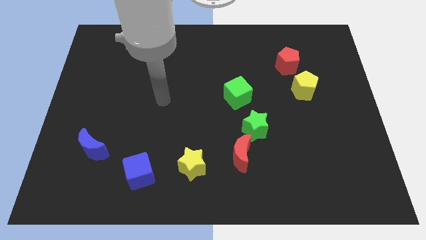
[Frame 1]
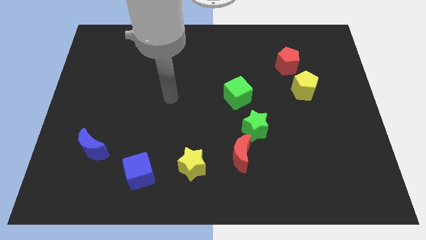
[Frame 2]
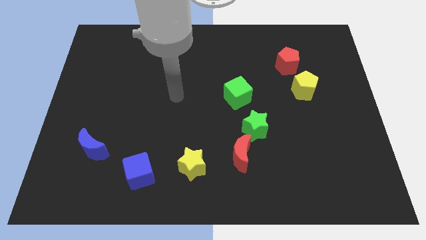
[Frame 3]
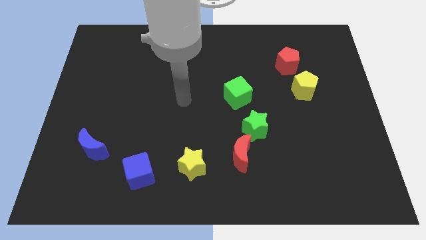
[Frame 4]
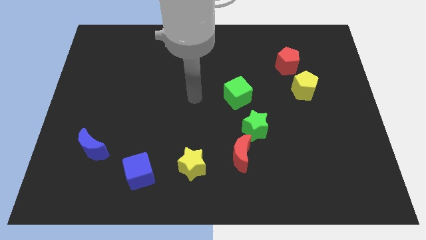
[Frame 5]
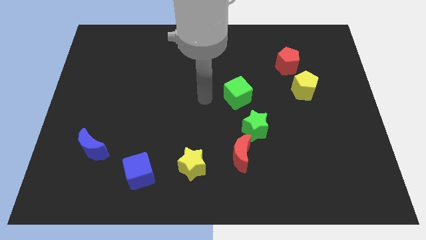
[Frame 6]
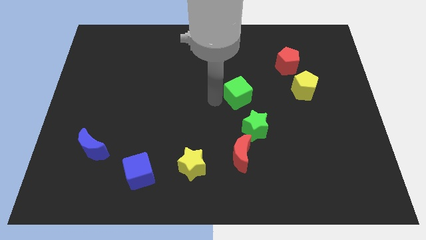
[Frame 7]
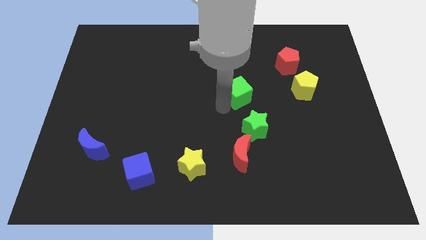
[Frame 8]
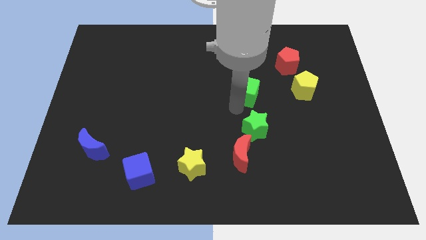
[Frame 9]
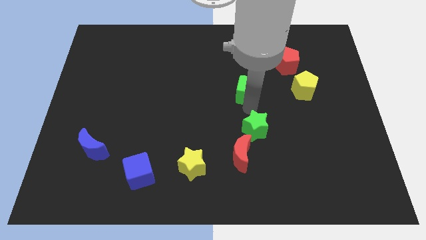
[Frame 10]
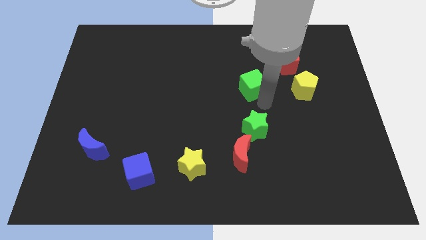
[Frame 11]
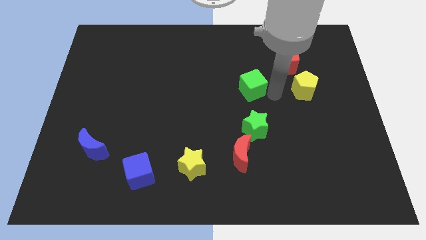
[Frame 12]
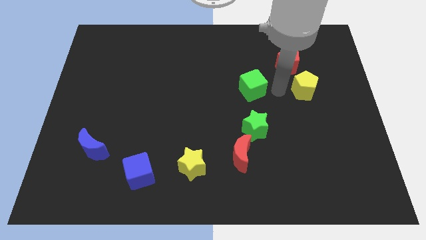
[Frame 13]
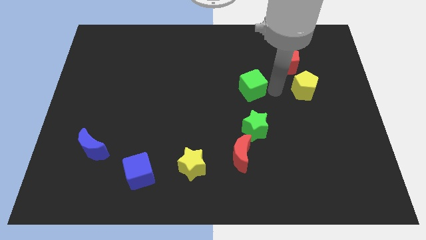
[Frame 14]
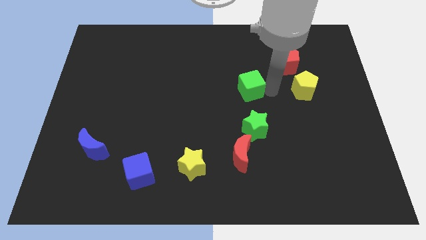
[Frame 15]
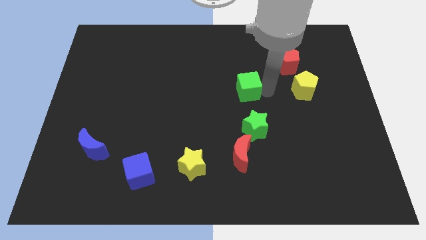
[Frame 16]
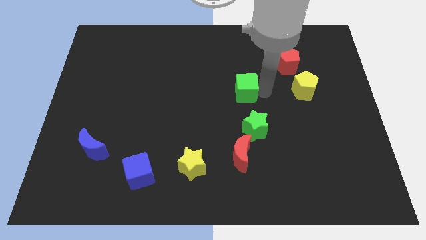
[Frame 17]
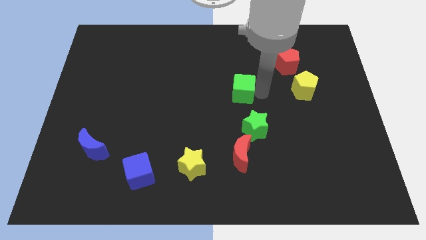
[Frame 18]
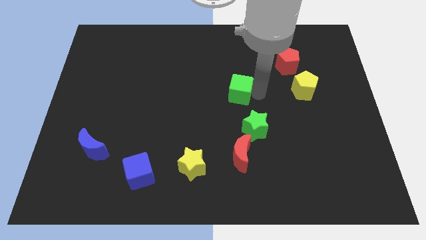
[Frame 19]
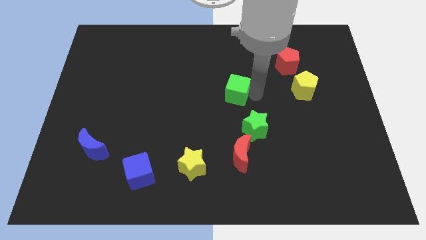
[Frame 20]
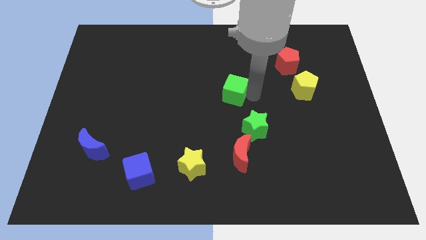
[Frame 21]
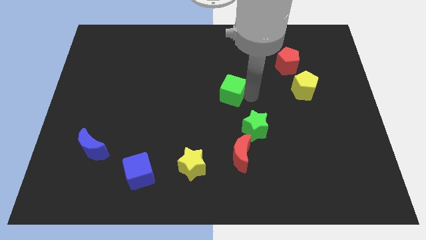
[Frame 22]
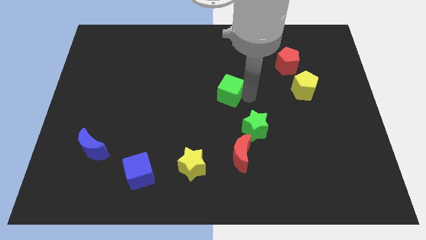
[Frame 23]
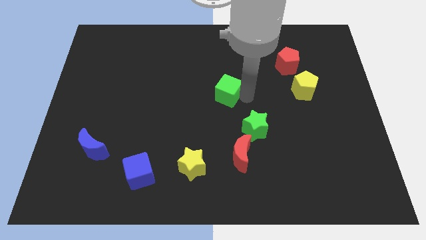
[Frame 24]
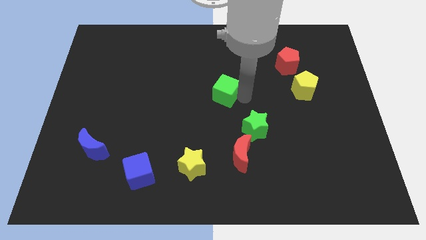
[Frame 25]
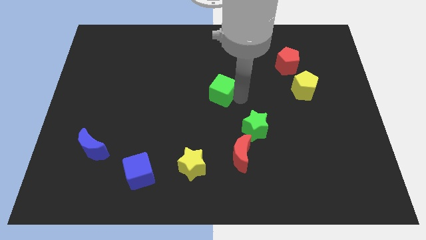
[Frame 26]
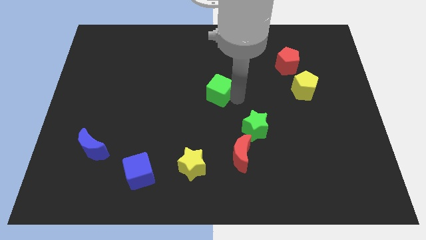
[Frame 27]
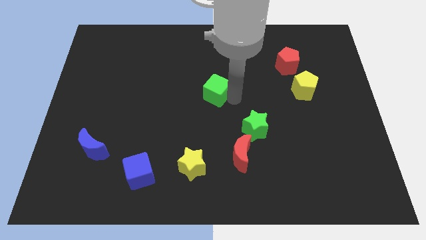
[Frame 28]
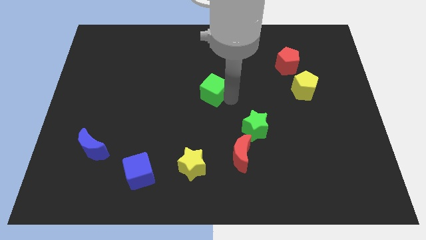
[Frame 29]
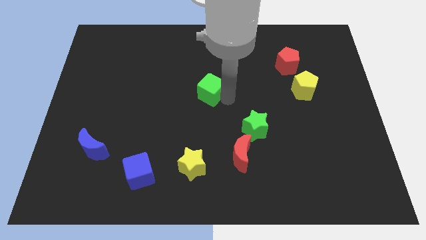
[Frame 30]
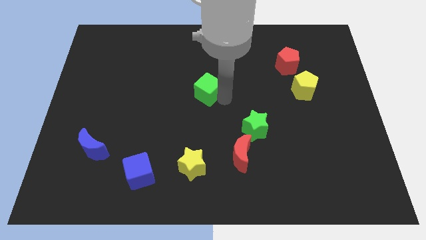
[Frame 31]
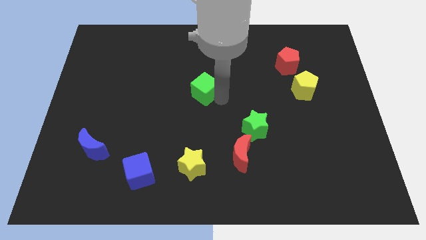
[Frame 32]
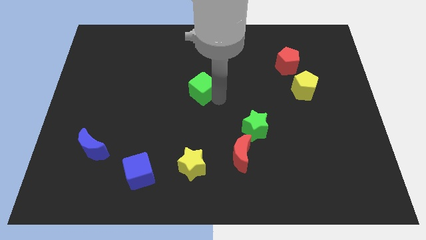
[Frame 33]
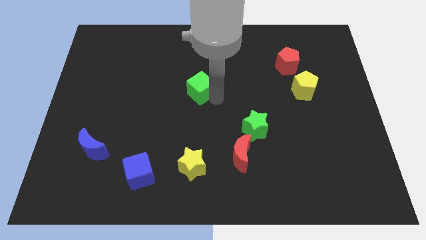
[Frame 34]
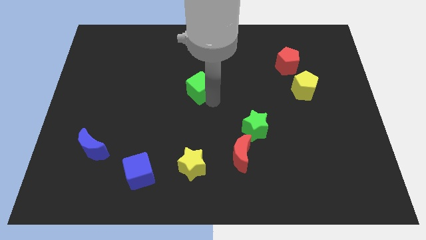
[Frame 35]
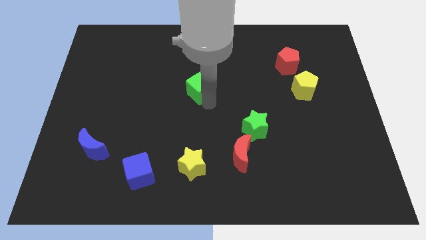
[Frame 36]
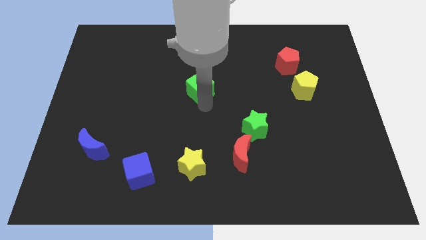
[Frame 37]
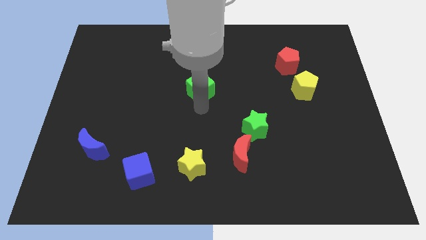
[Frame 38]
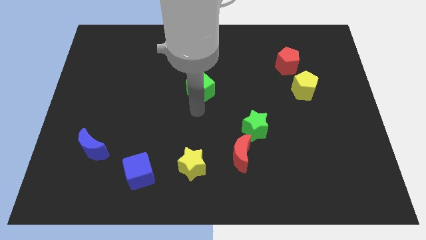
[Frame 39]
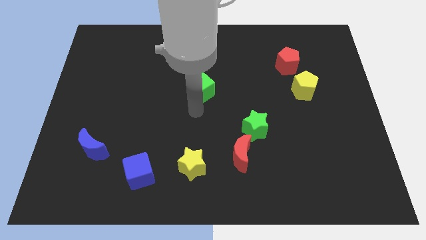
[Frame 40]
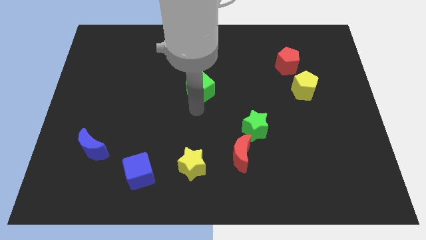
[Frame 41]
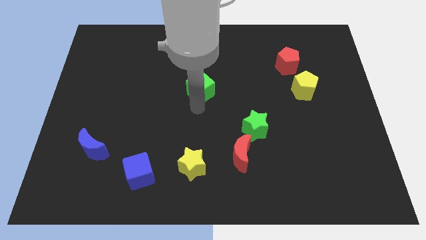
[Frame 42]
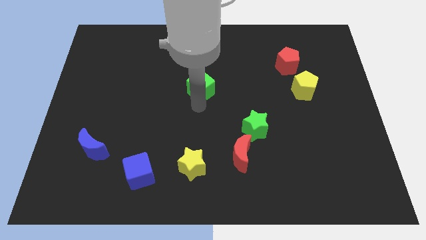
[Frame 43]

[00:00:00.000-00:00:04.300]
slightly slide the green cube upwards and to the left diagonally

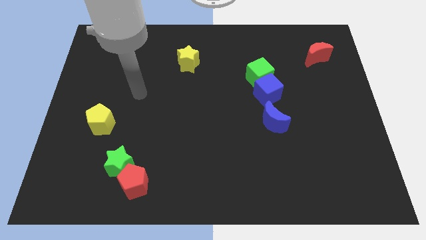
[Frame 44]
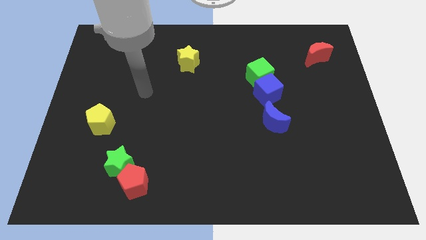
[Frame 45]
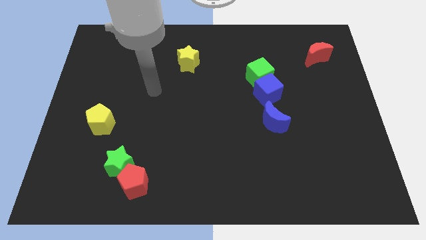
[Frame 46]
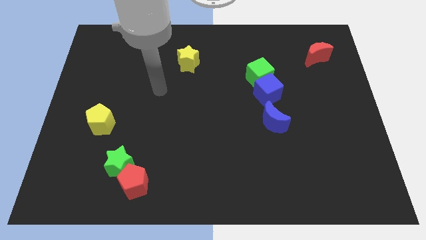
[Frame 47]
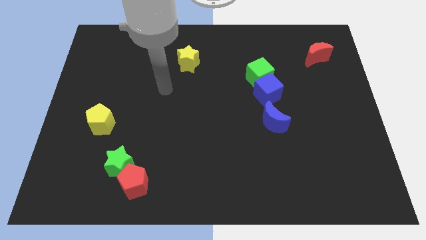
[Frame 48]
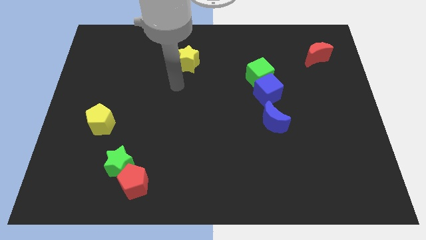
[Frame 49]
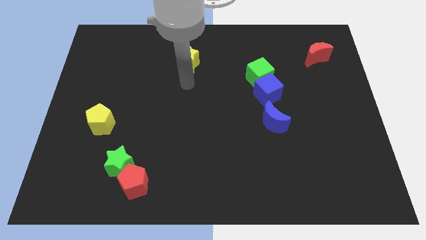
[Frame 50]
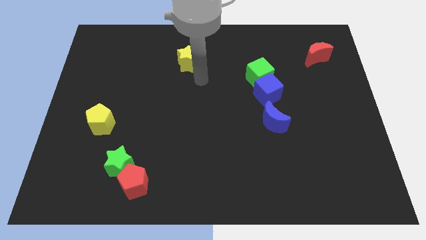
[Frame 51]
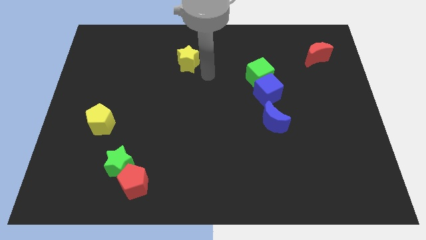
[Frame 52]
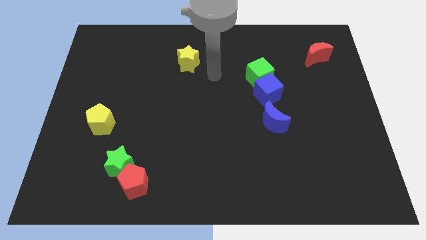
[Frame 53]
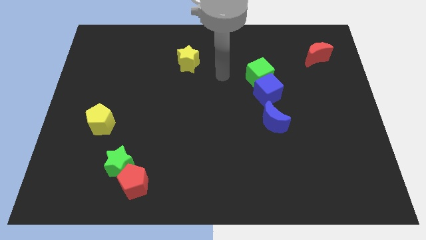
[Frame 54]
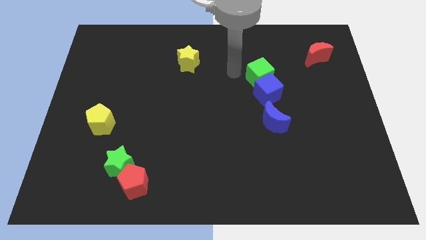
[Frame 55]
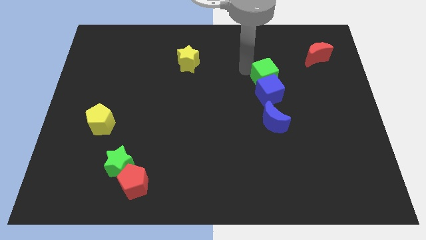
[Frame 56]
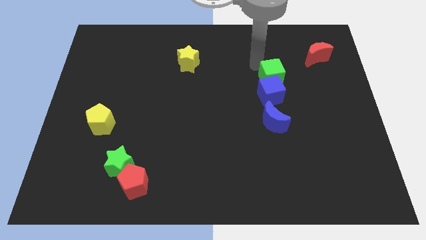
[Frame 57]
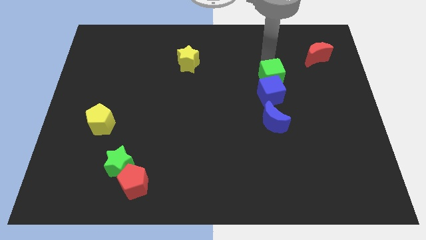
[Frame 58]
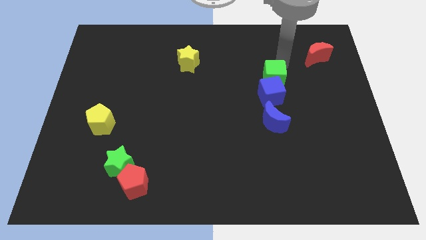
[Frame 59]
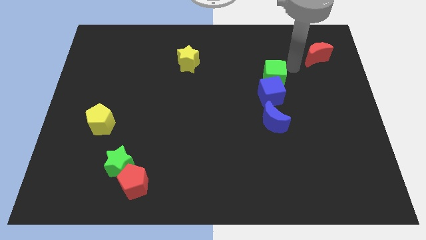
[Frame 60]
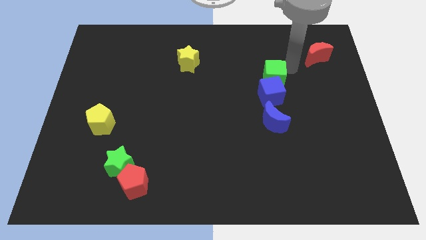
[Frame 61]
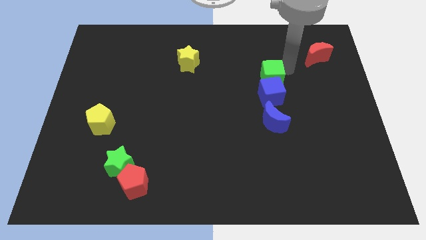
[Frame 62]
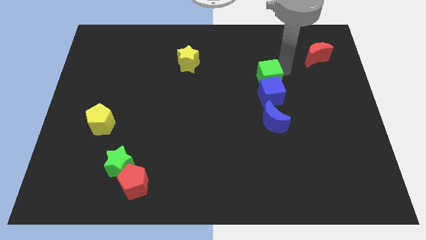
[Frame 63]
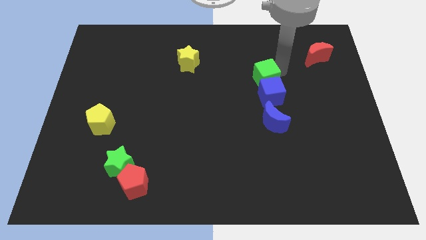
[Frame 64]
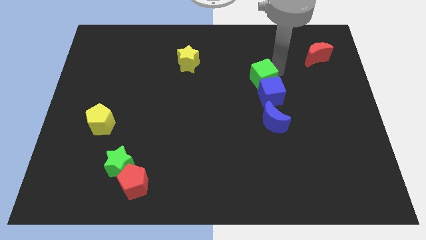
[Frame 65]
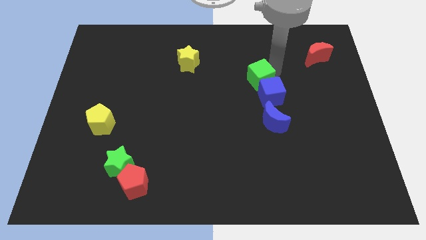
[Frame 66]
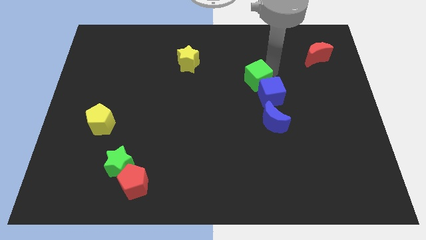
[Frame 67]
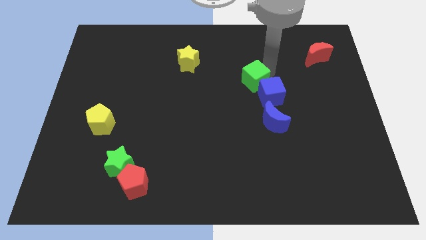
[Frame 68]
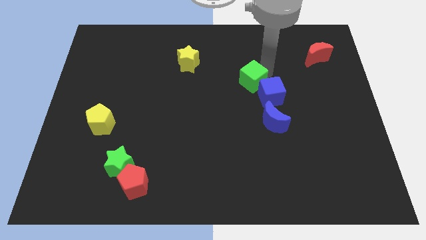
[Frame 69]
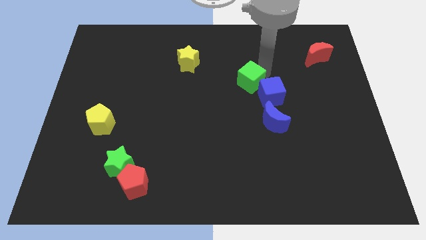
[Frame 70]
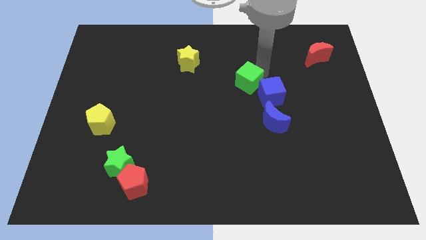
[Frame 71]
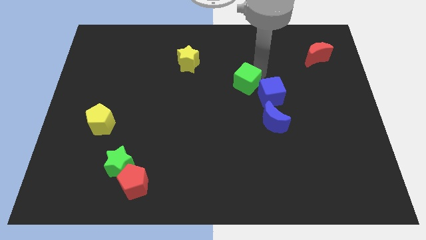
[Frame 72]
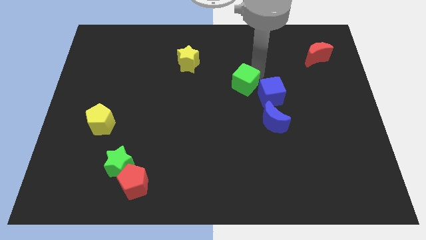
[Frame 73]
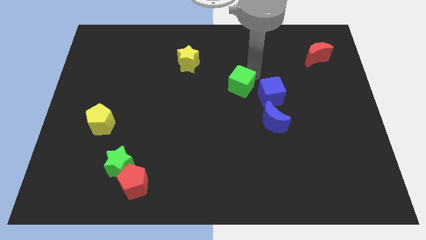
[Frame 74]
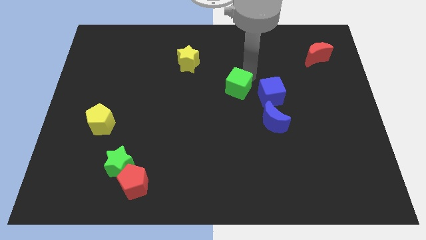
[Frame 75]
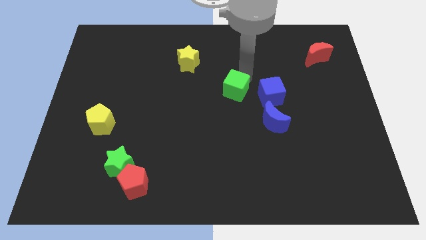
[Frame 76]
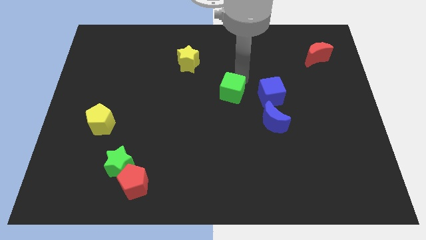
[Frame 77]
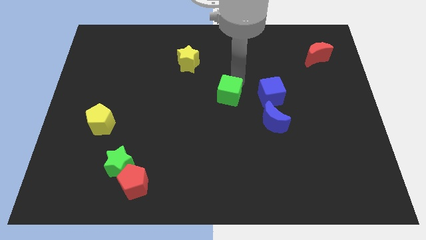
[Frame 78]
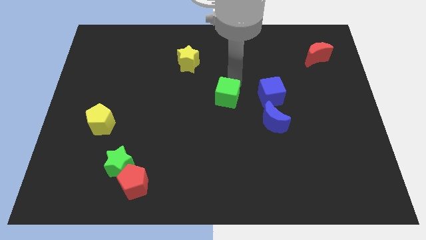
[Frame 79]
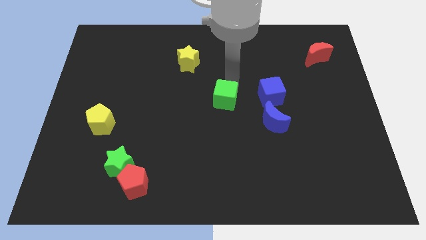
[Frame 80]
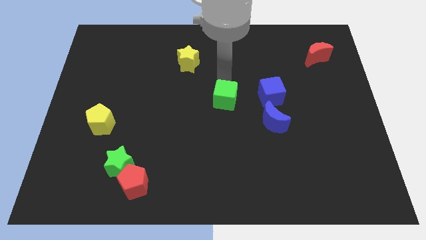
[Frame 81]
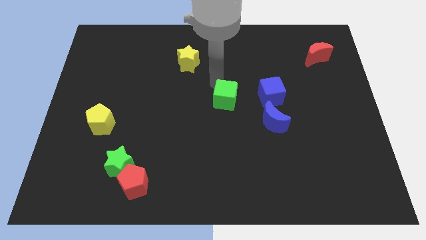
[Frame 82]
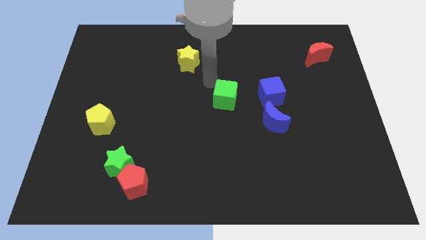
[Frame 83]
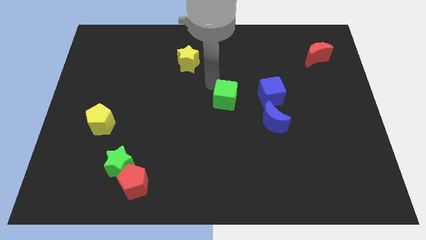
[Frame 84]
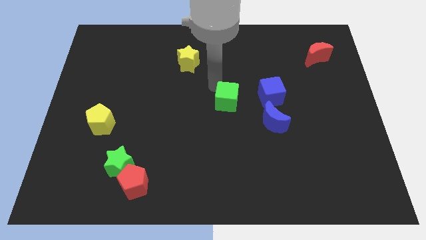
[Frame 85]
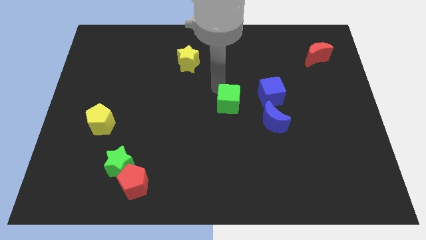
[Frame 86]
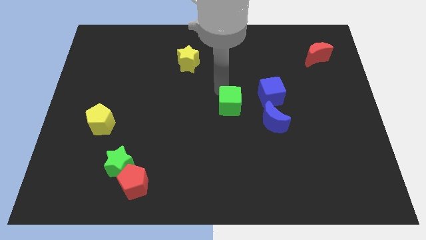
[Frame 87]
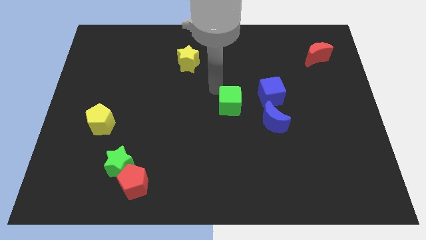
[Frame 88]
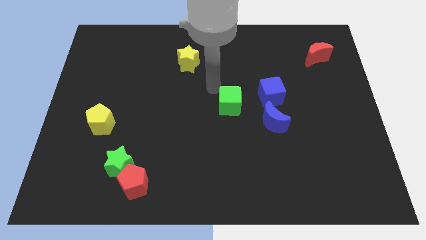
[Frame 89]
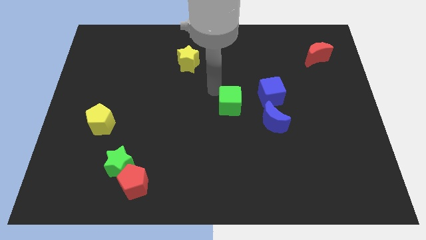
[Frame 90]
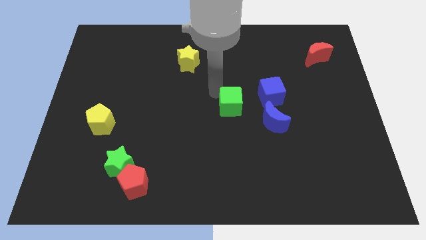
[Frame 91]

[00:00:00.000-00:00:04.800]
move the green cube down a bit
